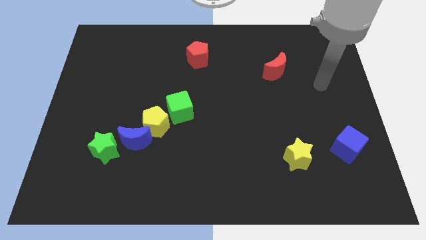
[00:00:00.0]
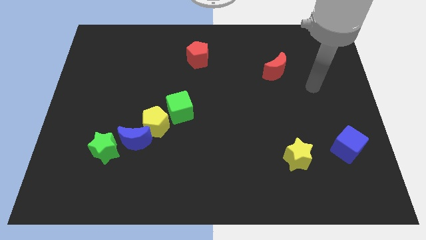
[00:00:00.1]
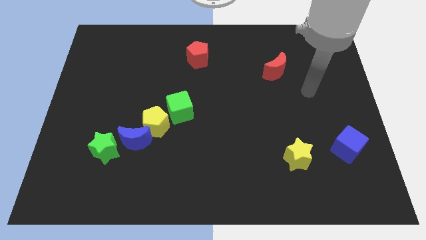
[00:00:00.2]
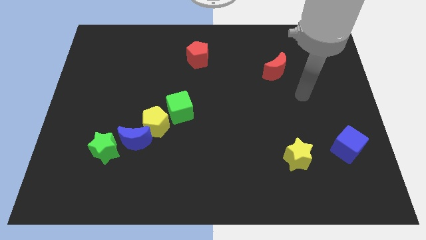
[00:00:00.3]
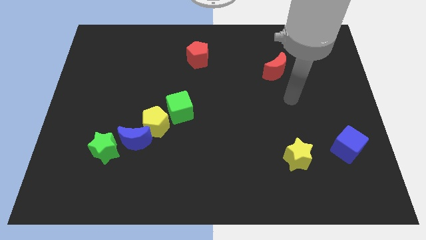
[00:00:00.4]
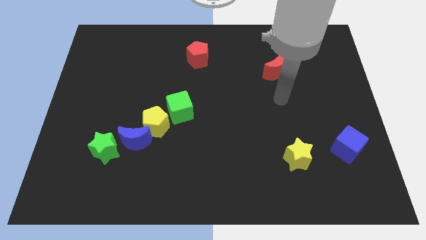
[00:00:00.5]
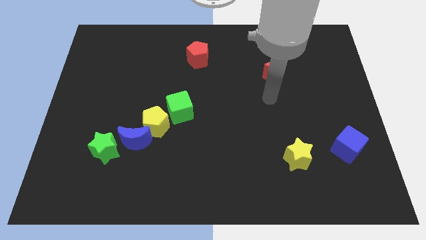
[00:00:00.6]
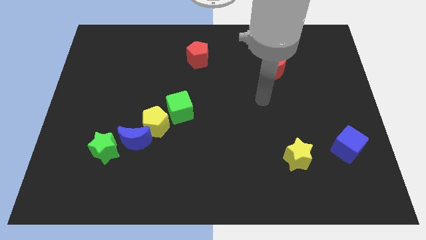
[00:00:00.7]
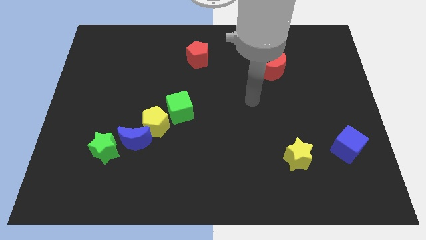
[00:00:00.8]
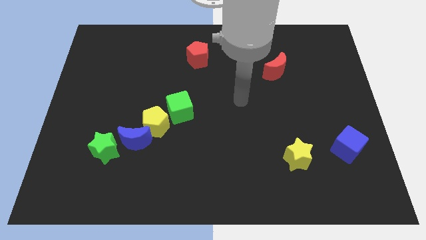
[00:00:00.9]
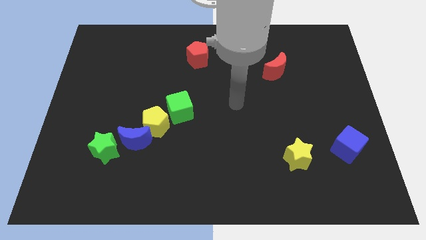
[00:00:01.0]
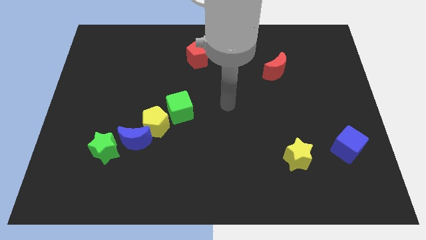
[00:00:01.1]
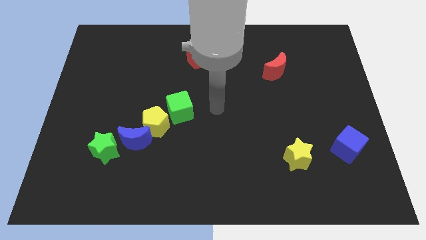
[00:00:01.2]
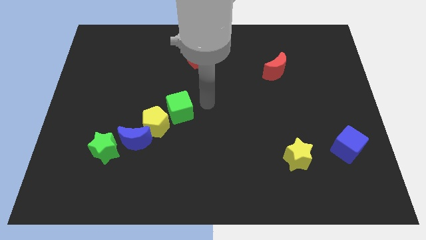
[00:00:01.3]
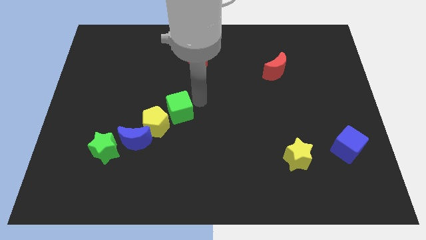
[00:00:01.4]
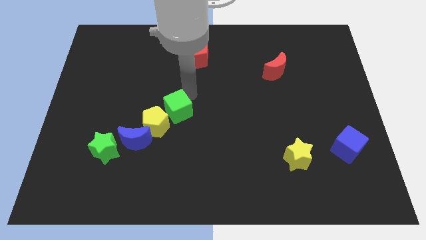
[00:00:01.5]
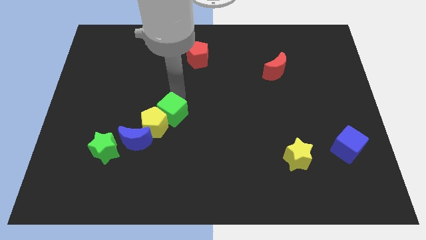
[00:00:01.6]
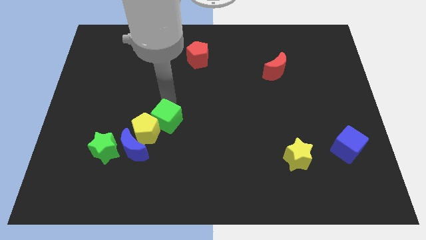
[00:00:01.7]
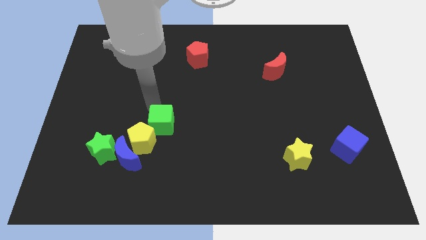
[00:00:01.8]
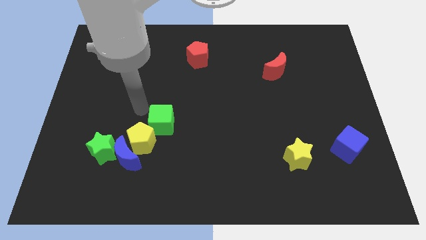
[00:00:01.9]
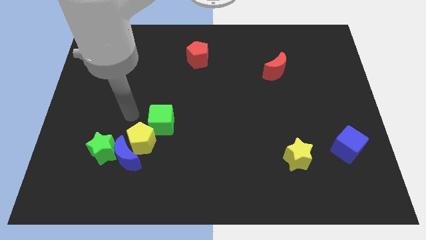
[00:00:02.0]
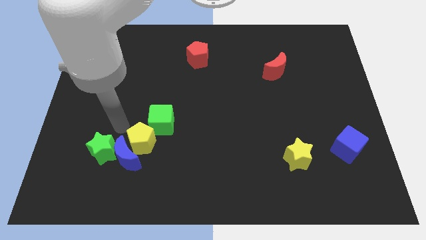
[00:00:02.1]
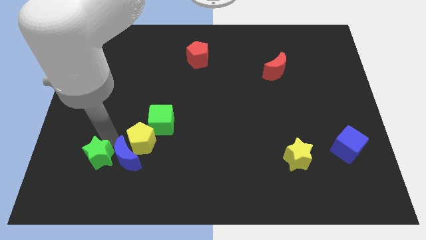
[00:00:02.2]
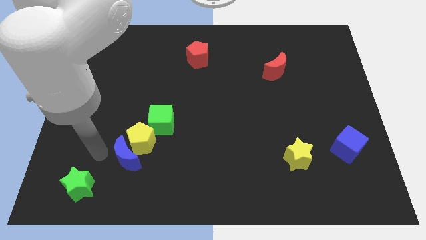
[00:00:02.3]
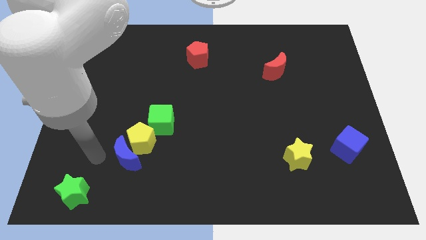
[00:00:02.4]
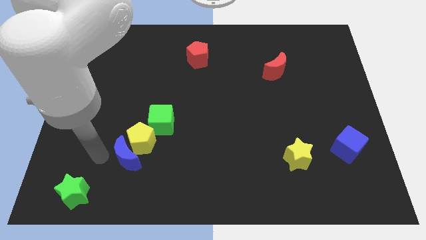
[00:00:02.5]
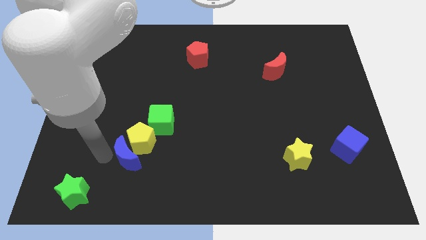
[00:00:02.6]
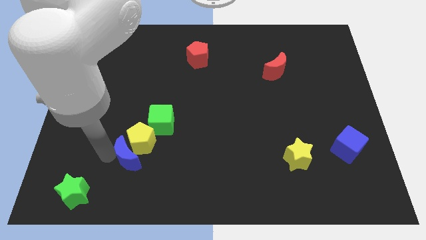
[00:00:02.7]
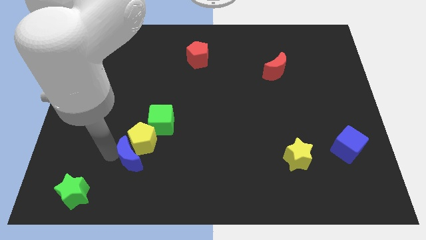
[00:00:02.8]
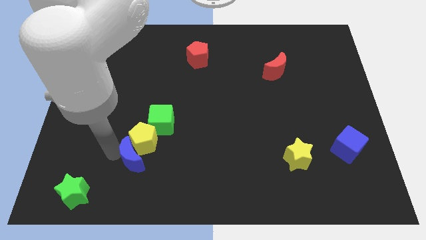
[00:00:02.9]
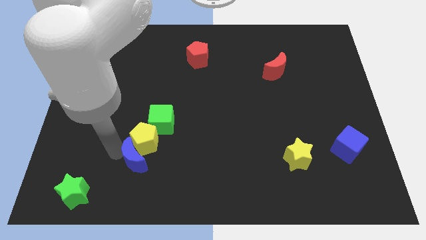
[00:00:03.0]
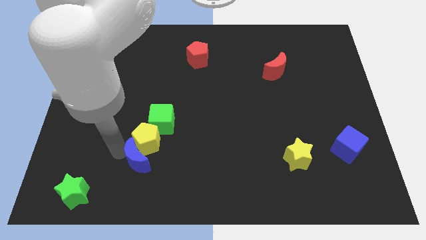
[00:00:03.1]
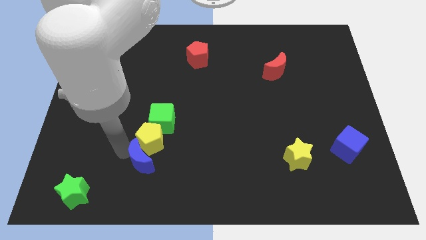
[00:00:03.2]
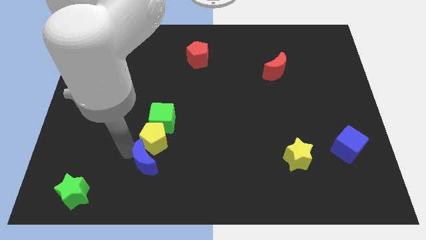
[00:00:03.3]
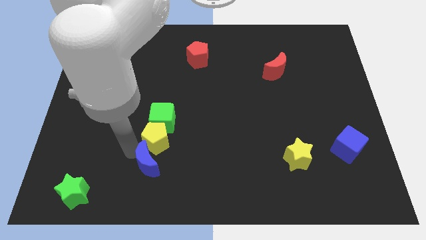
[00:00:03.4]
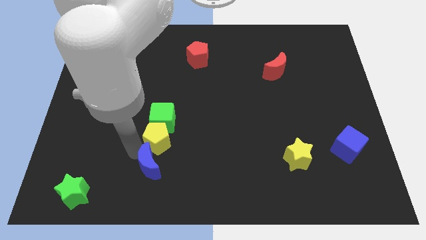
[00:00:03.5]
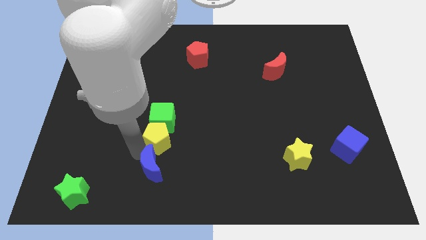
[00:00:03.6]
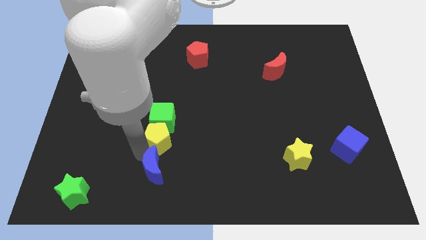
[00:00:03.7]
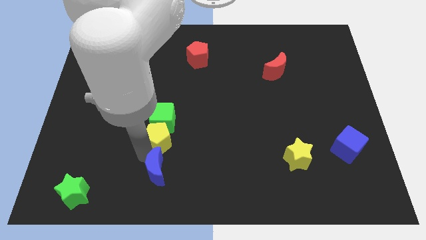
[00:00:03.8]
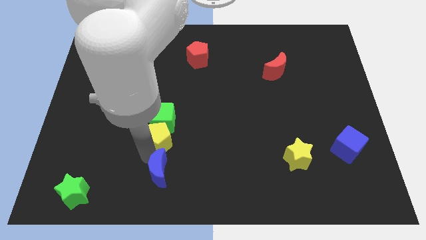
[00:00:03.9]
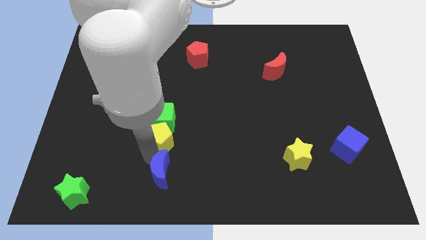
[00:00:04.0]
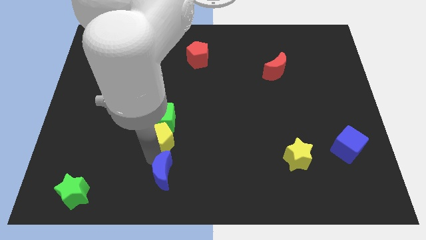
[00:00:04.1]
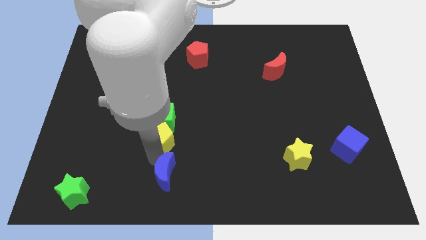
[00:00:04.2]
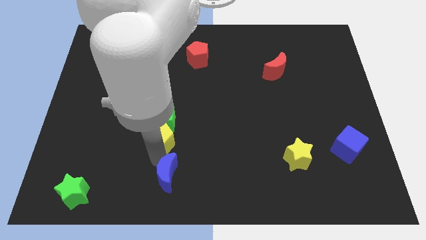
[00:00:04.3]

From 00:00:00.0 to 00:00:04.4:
separate the blue moon from the yellow pentagon and green star

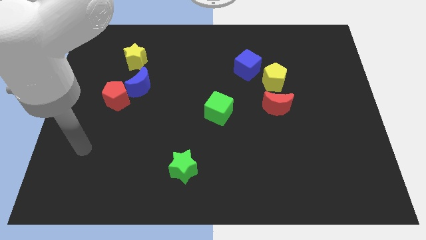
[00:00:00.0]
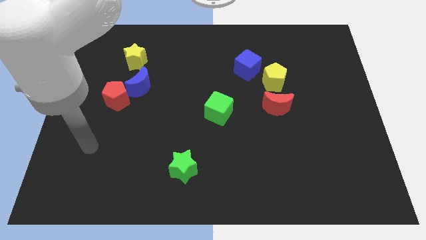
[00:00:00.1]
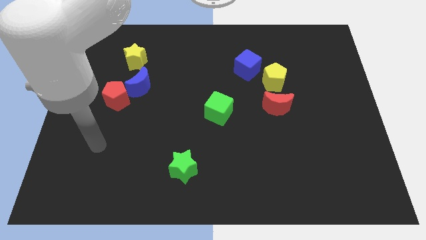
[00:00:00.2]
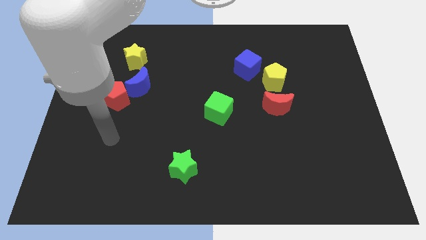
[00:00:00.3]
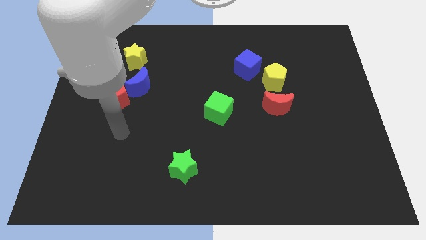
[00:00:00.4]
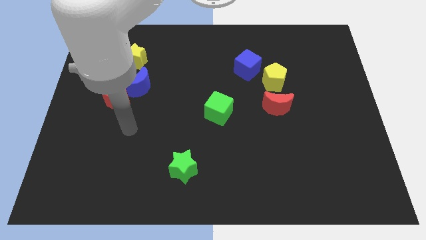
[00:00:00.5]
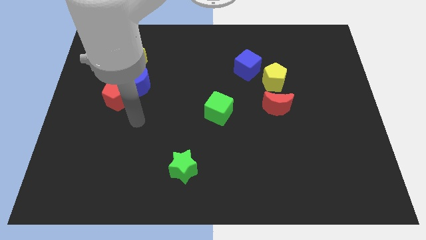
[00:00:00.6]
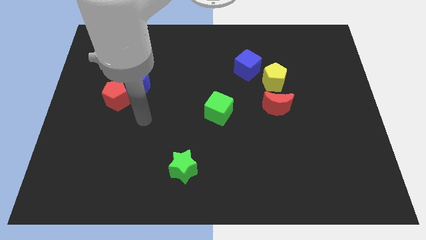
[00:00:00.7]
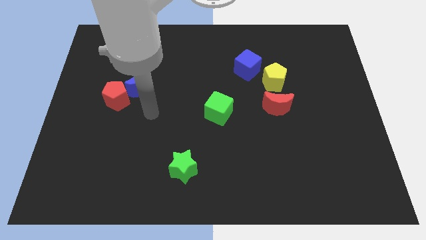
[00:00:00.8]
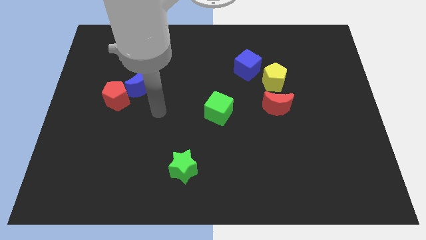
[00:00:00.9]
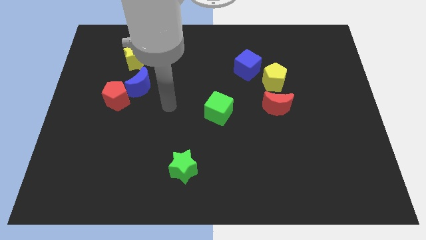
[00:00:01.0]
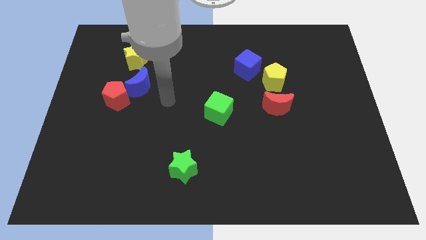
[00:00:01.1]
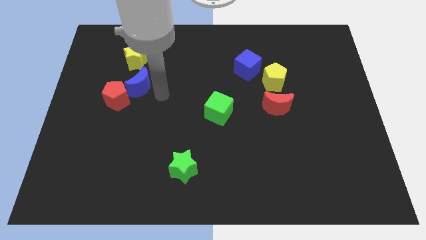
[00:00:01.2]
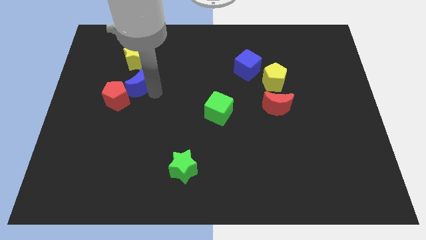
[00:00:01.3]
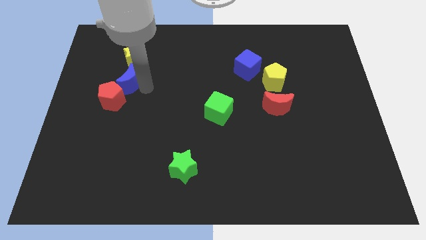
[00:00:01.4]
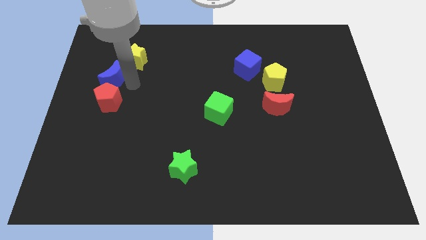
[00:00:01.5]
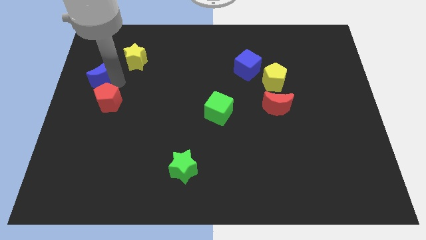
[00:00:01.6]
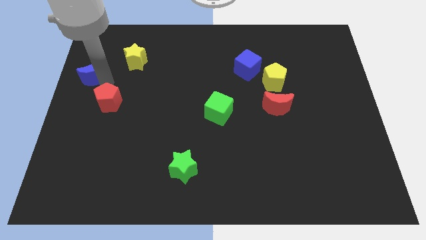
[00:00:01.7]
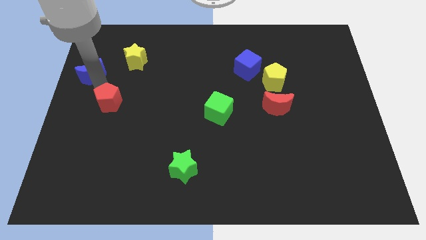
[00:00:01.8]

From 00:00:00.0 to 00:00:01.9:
pull the red pentagon apart from the blue moon

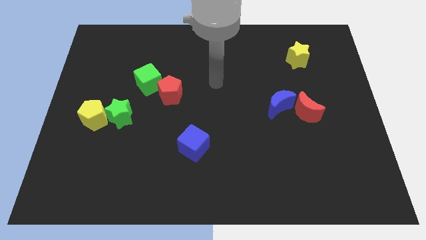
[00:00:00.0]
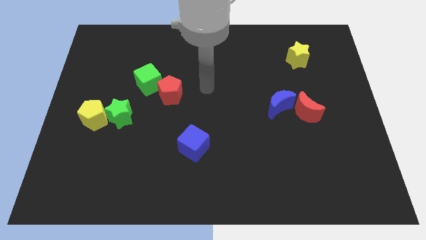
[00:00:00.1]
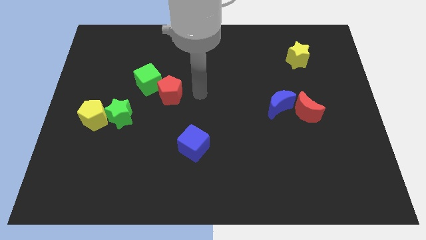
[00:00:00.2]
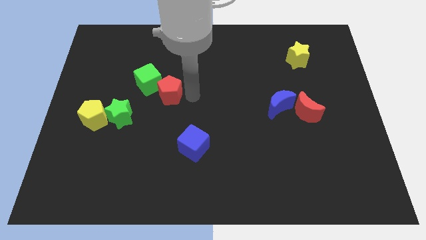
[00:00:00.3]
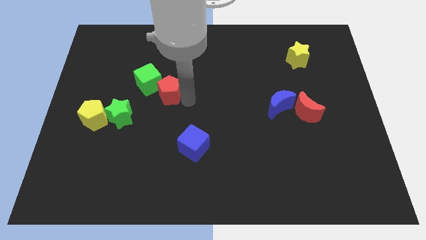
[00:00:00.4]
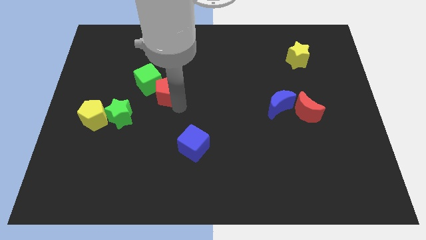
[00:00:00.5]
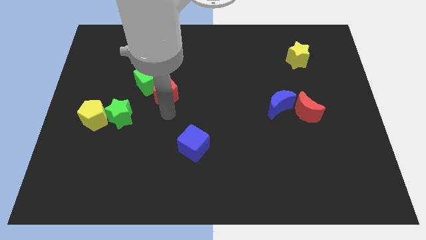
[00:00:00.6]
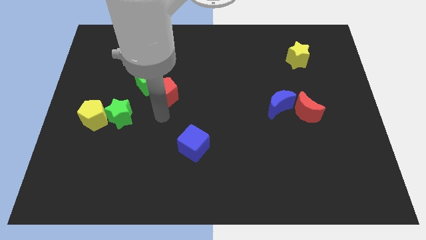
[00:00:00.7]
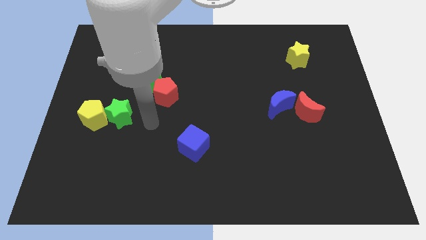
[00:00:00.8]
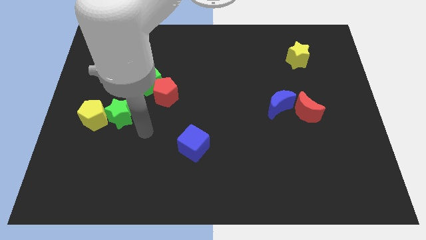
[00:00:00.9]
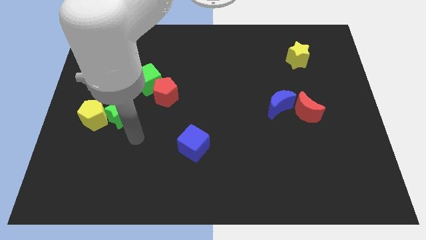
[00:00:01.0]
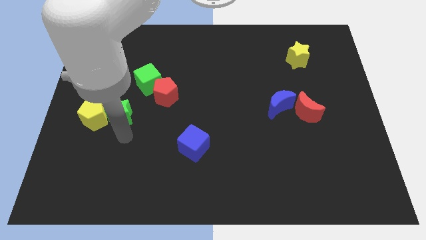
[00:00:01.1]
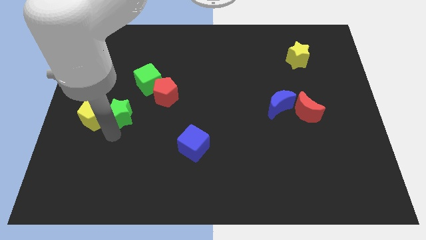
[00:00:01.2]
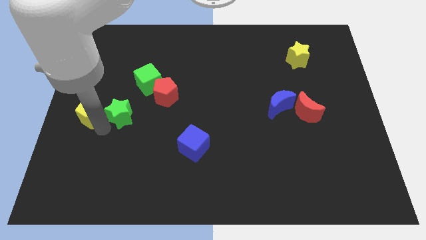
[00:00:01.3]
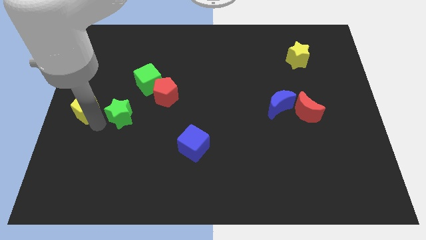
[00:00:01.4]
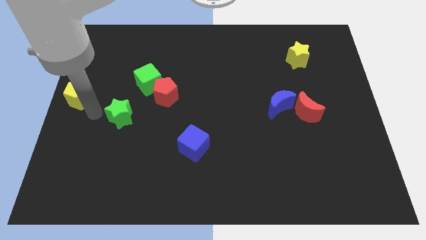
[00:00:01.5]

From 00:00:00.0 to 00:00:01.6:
move the green star away from the yellow pentagon

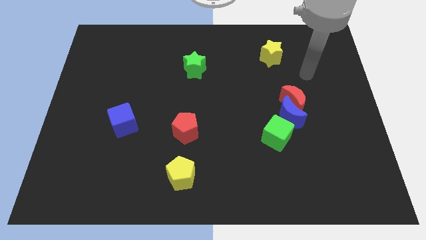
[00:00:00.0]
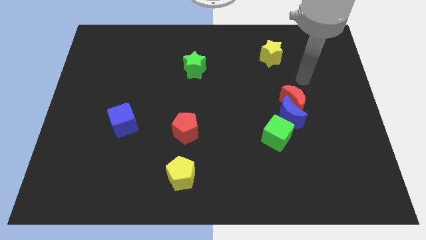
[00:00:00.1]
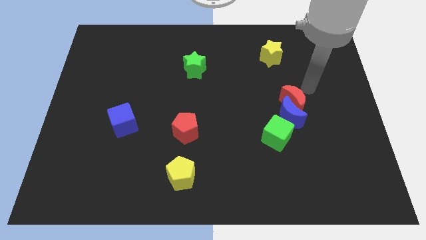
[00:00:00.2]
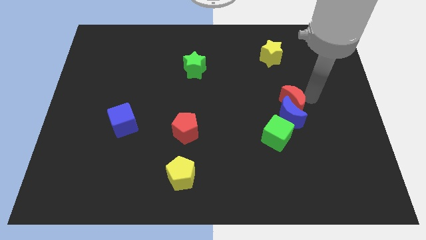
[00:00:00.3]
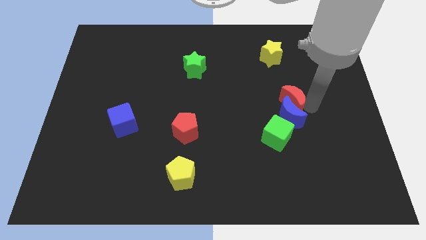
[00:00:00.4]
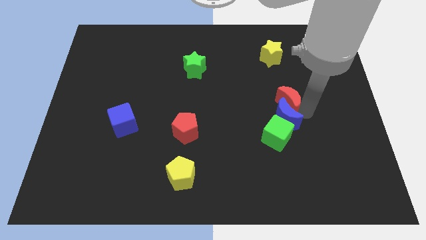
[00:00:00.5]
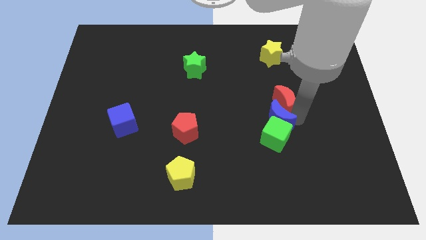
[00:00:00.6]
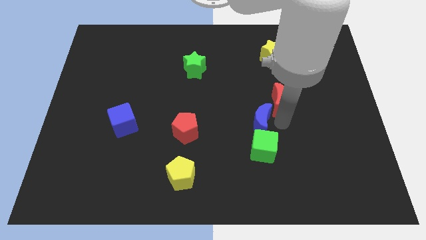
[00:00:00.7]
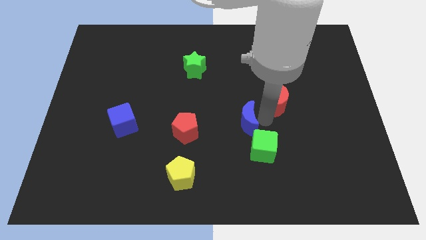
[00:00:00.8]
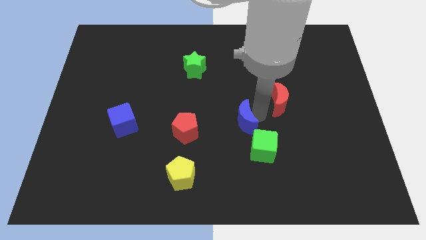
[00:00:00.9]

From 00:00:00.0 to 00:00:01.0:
pull the red moon apart from the blue moon

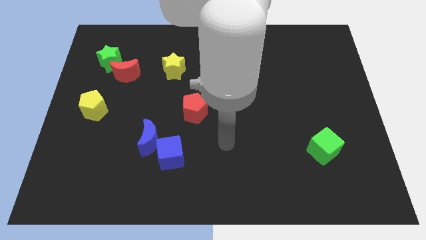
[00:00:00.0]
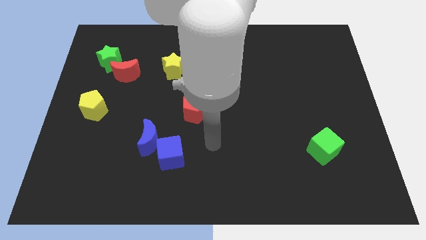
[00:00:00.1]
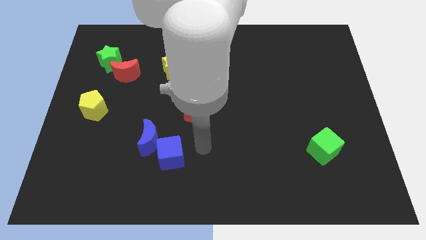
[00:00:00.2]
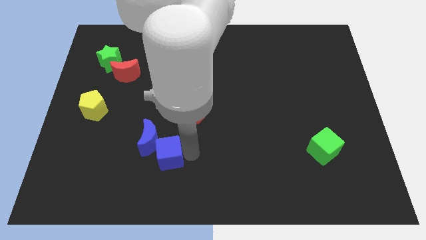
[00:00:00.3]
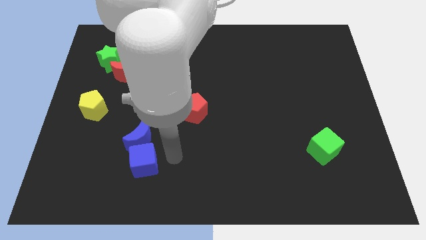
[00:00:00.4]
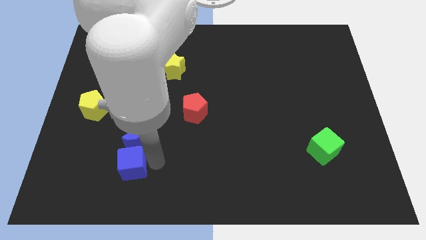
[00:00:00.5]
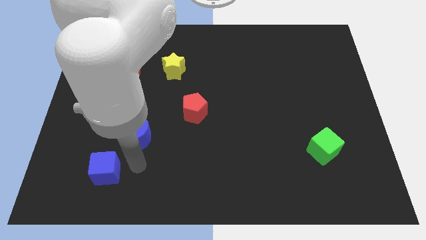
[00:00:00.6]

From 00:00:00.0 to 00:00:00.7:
pull the blue moon apart from the blue cube
